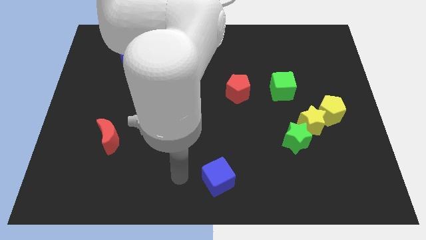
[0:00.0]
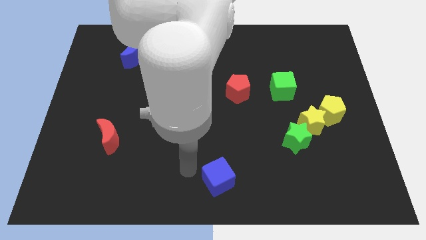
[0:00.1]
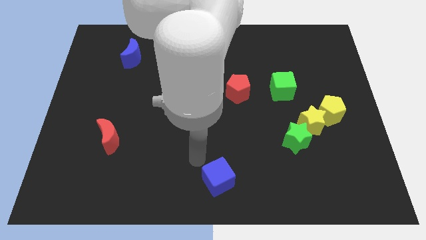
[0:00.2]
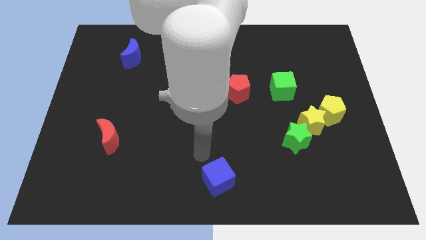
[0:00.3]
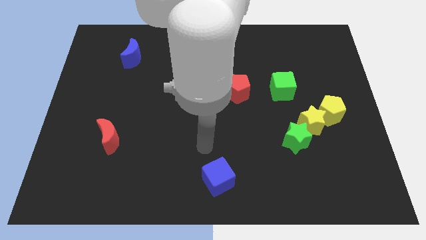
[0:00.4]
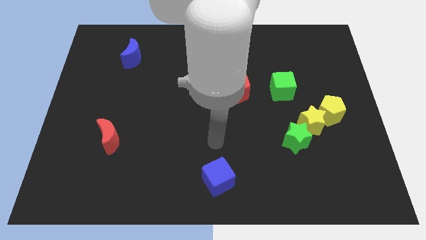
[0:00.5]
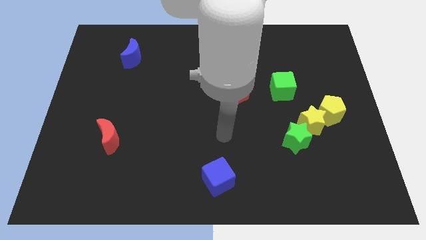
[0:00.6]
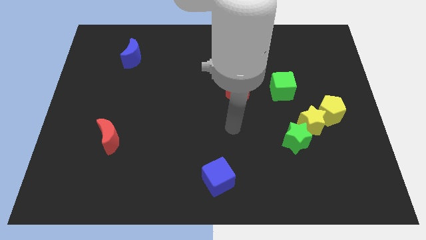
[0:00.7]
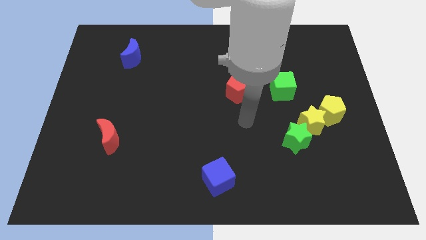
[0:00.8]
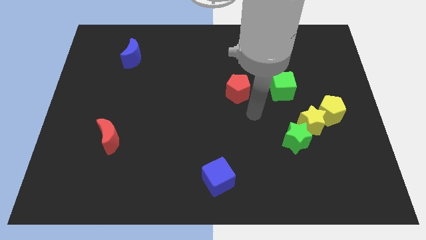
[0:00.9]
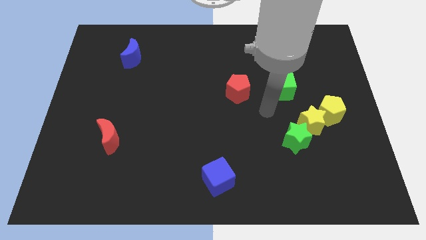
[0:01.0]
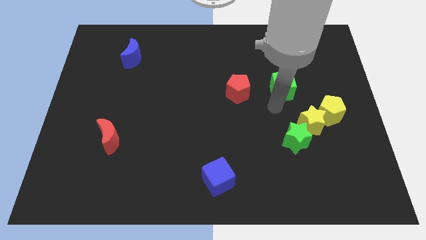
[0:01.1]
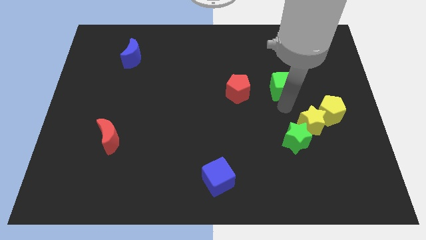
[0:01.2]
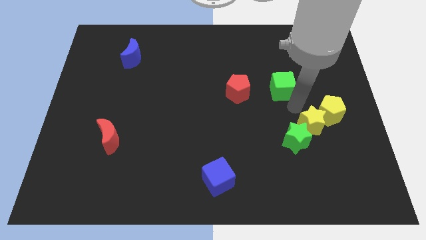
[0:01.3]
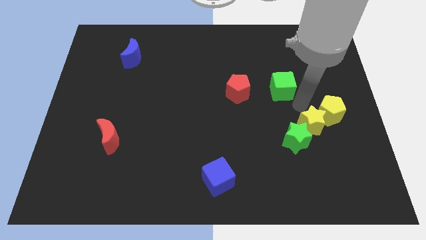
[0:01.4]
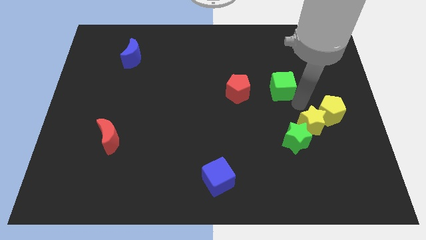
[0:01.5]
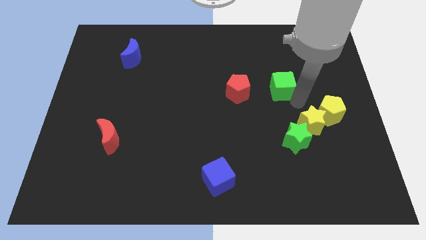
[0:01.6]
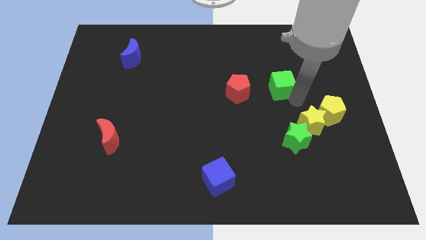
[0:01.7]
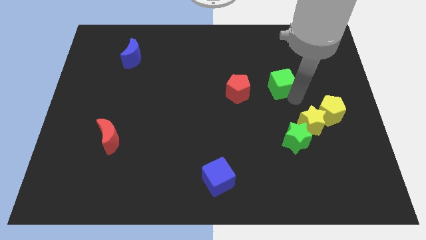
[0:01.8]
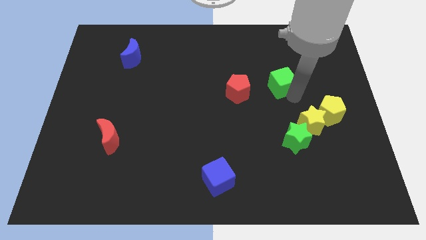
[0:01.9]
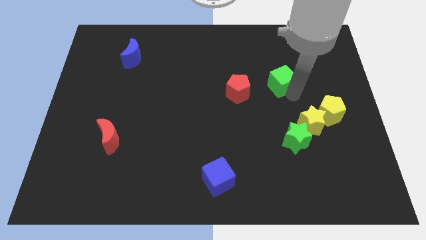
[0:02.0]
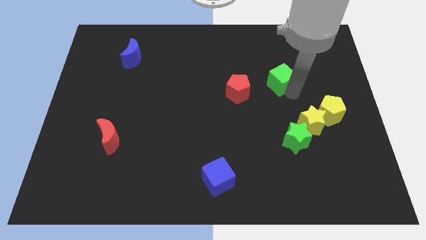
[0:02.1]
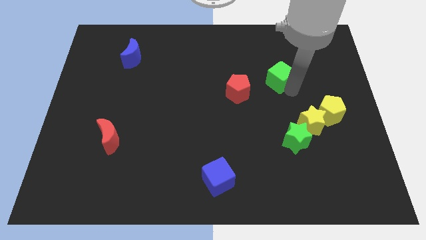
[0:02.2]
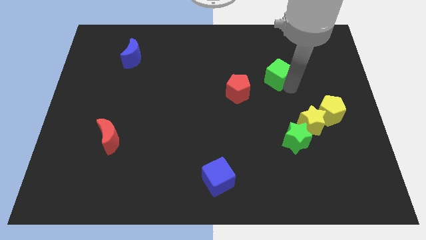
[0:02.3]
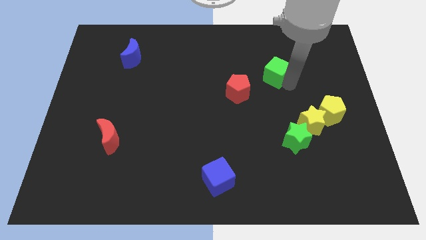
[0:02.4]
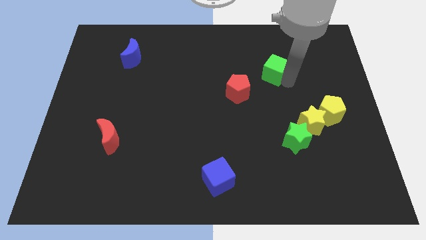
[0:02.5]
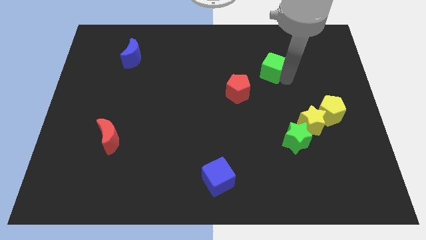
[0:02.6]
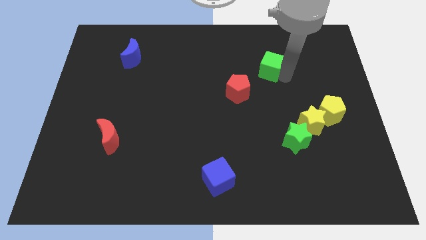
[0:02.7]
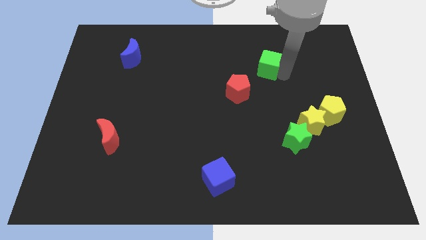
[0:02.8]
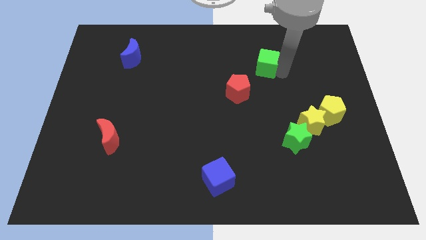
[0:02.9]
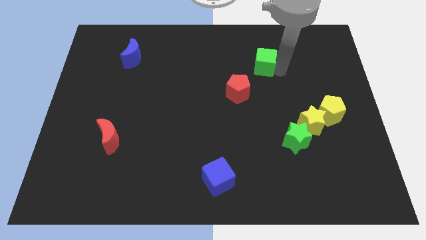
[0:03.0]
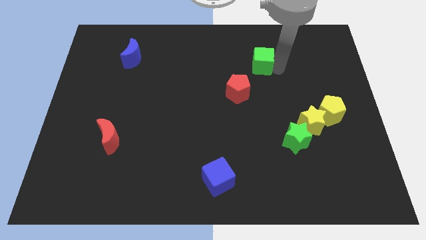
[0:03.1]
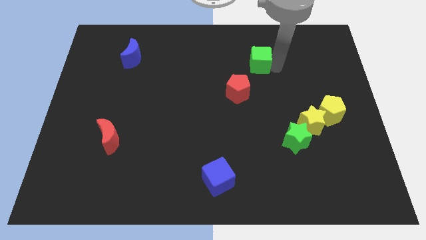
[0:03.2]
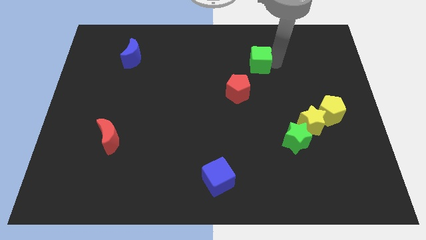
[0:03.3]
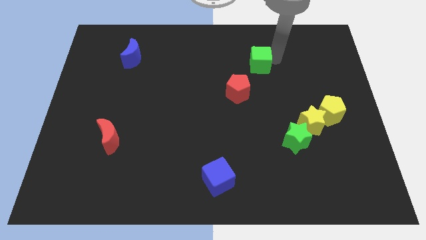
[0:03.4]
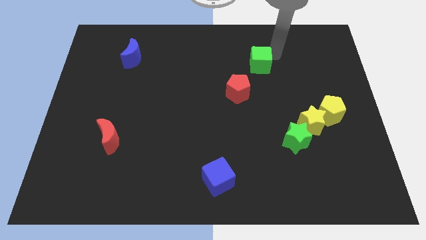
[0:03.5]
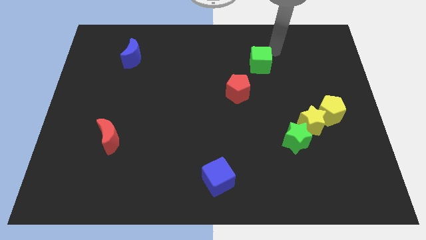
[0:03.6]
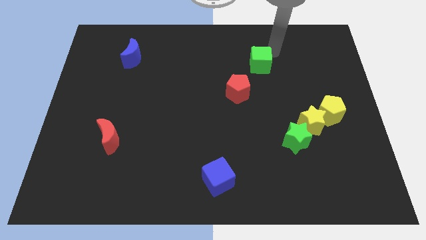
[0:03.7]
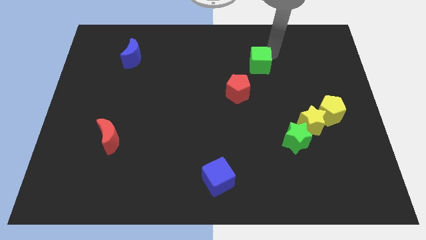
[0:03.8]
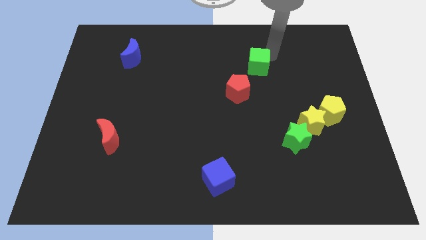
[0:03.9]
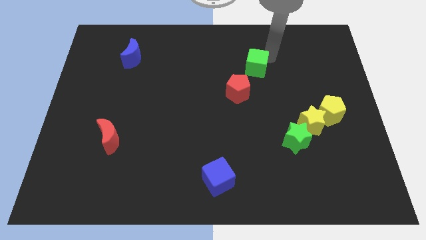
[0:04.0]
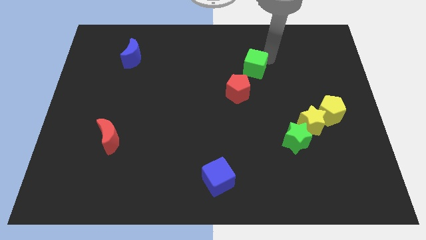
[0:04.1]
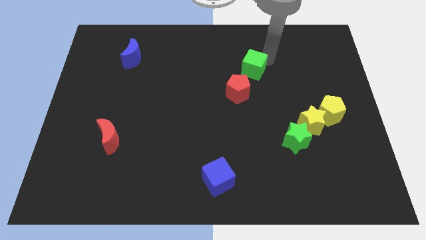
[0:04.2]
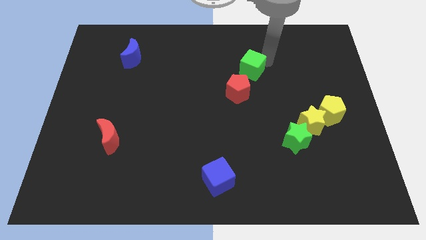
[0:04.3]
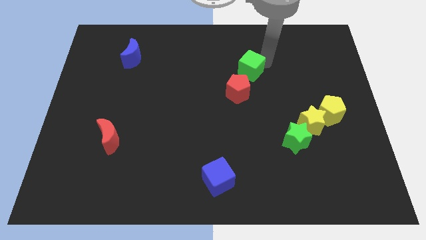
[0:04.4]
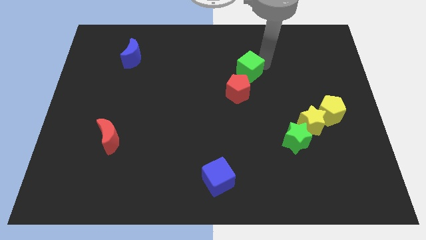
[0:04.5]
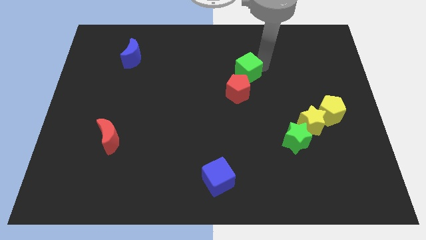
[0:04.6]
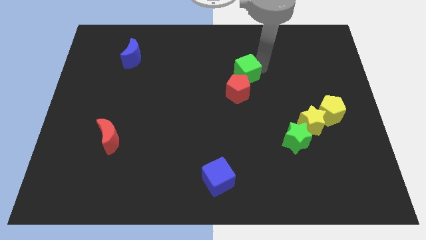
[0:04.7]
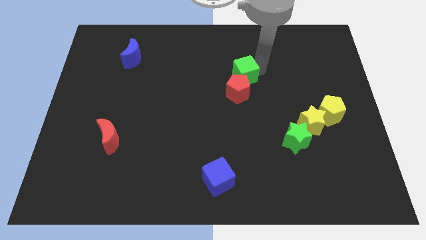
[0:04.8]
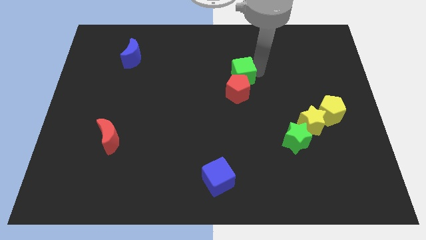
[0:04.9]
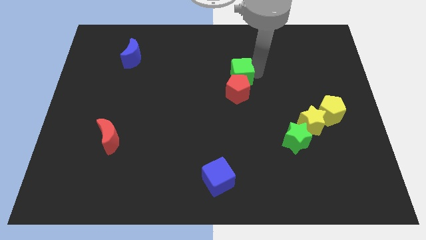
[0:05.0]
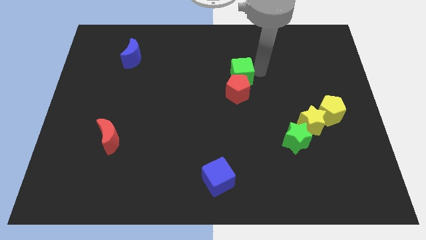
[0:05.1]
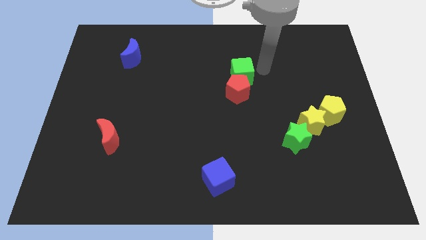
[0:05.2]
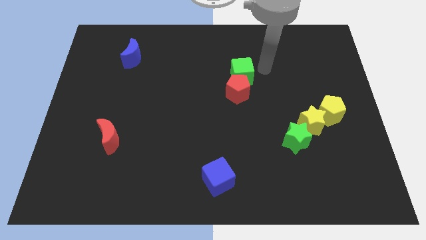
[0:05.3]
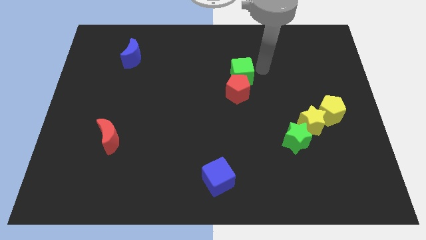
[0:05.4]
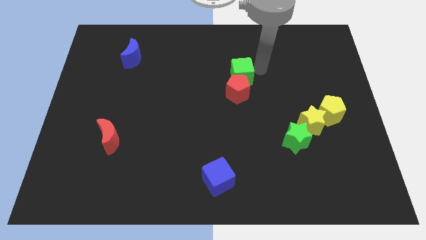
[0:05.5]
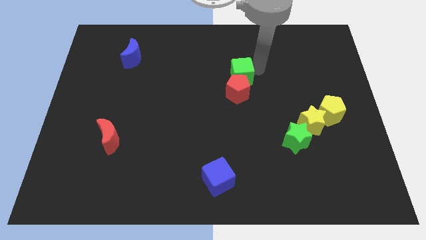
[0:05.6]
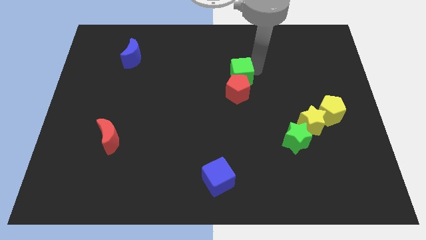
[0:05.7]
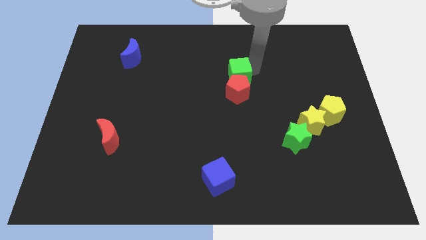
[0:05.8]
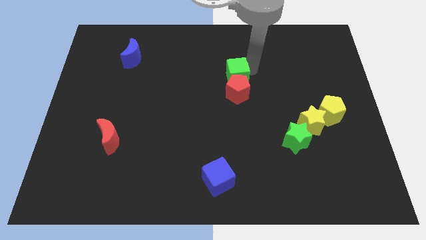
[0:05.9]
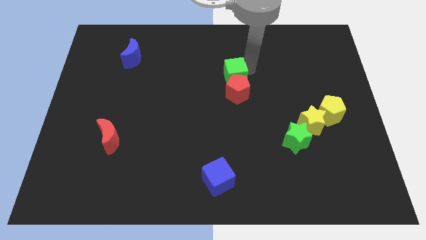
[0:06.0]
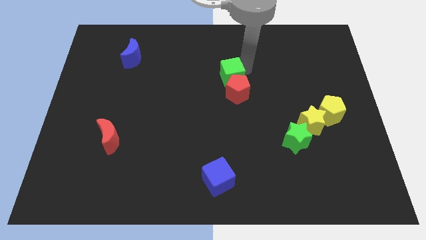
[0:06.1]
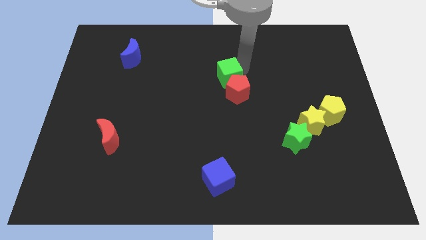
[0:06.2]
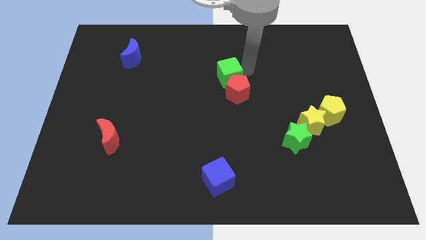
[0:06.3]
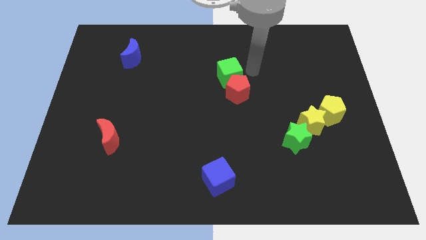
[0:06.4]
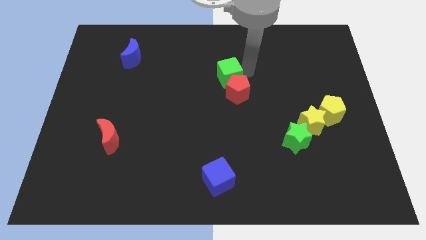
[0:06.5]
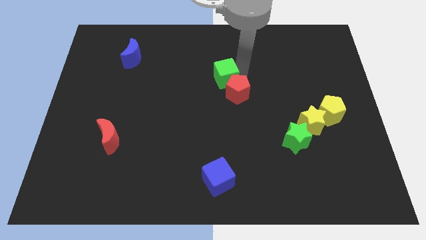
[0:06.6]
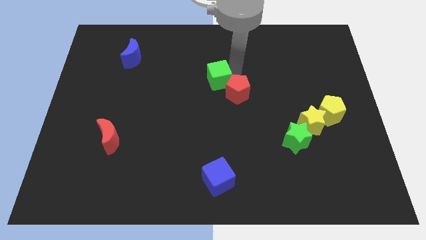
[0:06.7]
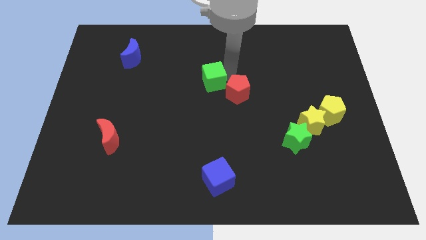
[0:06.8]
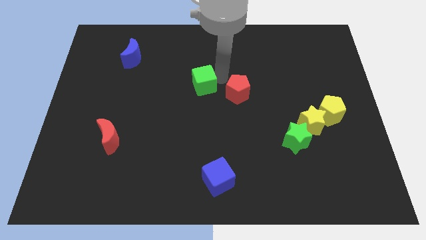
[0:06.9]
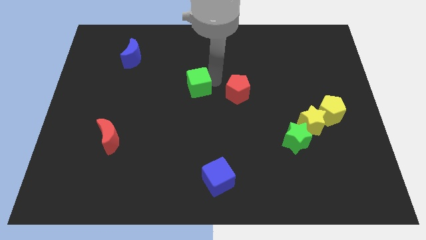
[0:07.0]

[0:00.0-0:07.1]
push the green cube left

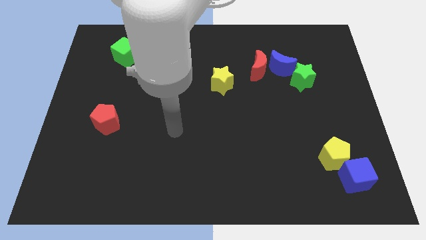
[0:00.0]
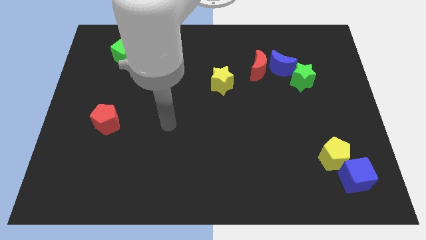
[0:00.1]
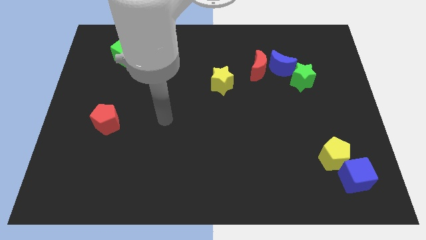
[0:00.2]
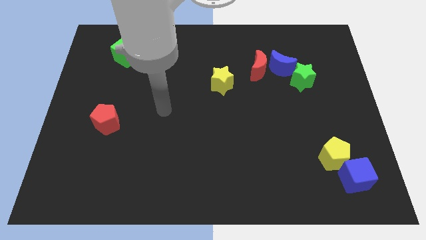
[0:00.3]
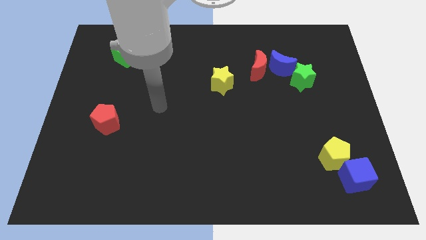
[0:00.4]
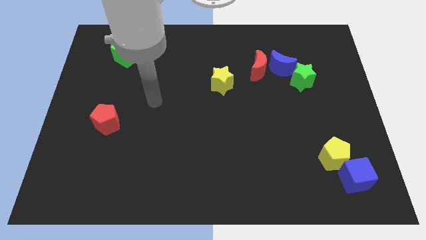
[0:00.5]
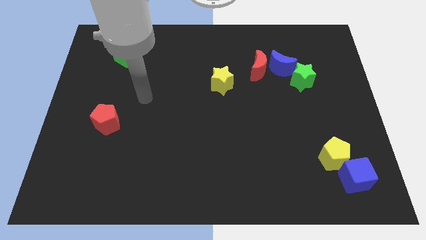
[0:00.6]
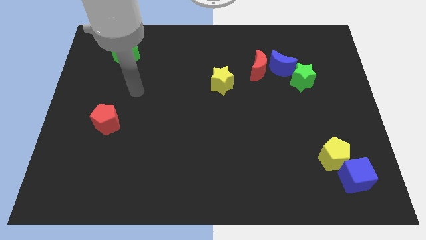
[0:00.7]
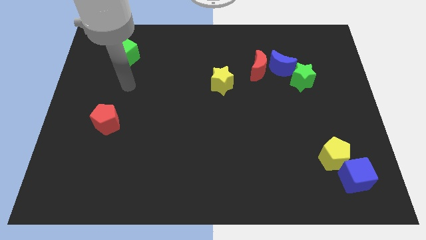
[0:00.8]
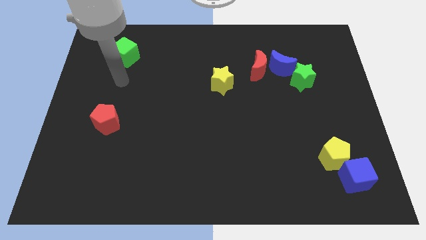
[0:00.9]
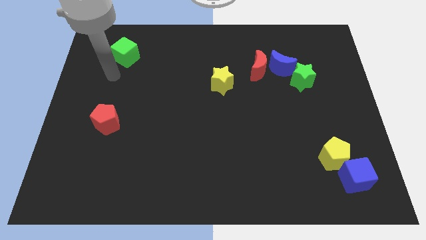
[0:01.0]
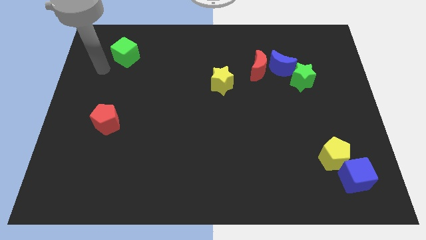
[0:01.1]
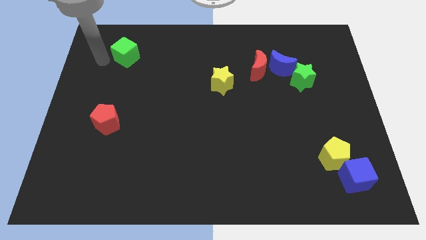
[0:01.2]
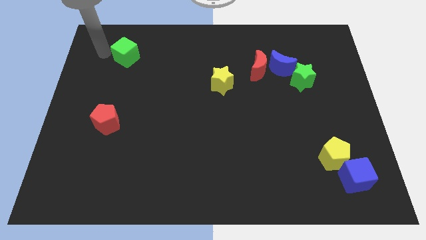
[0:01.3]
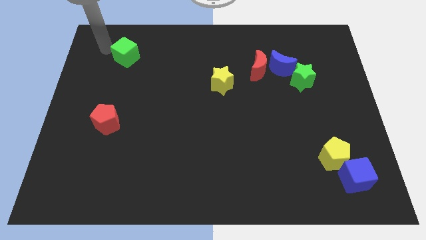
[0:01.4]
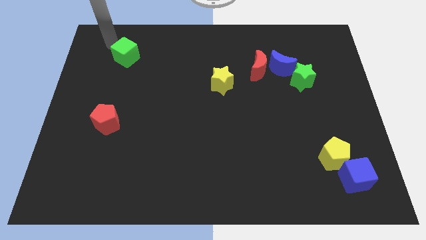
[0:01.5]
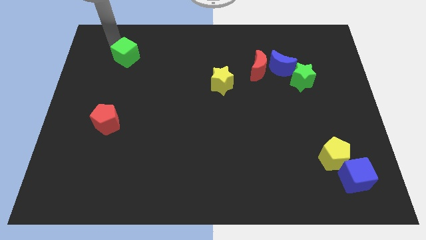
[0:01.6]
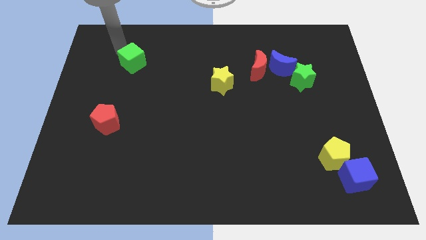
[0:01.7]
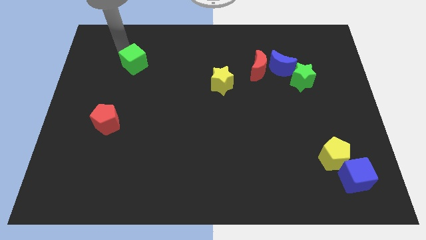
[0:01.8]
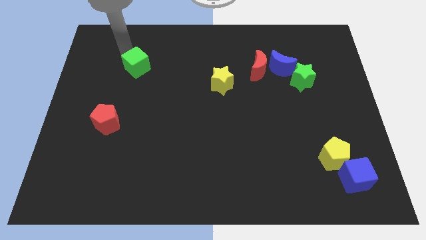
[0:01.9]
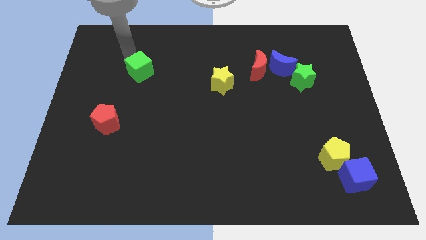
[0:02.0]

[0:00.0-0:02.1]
slightly move the green cube diagonally downwards and to the right
